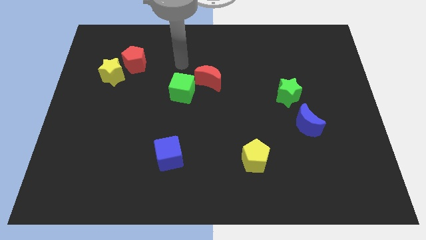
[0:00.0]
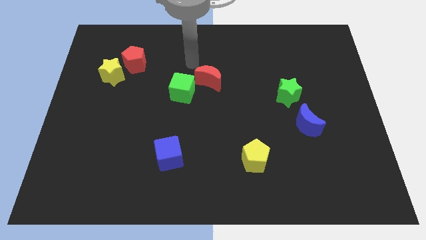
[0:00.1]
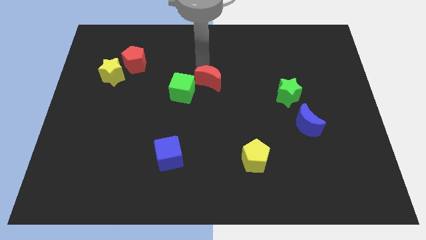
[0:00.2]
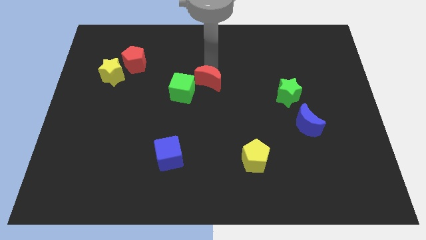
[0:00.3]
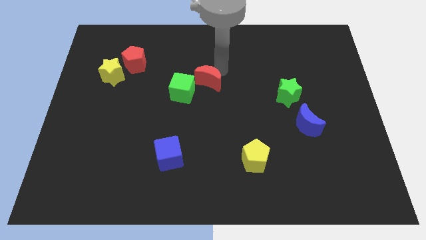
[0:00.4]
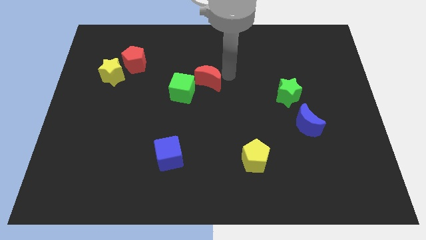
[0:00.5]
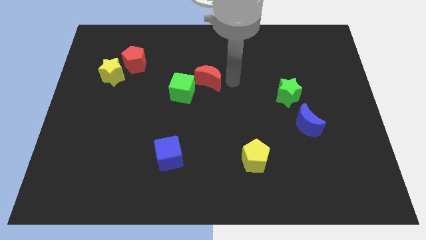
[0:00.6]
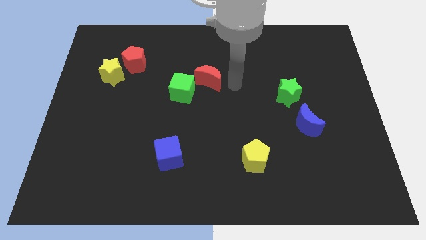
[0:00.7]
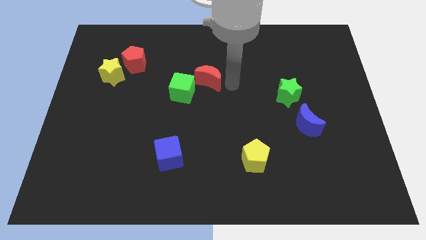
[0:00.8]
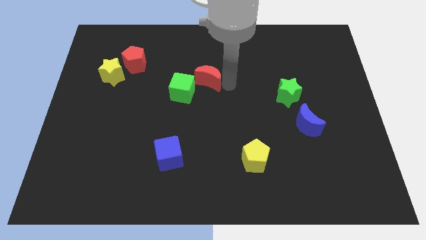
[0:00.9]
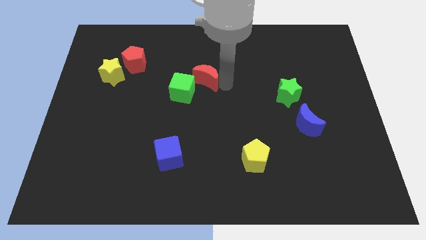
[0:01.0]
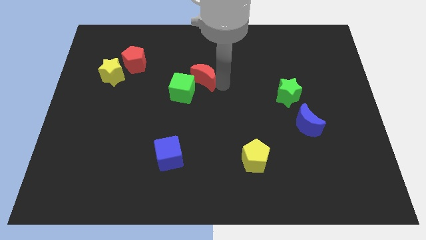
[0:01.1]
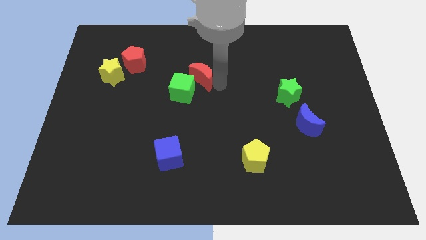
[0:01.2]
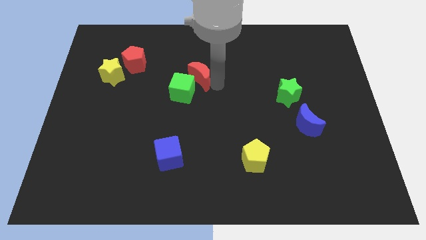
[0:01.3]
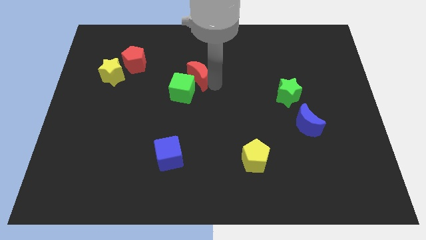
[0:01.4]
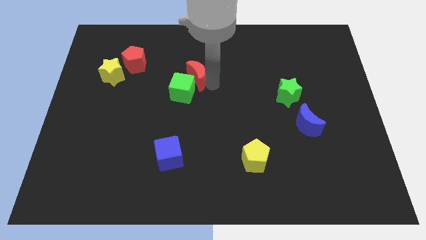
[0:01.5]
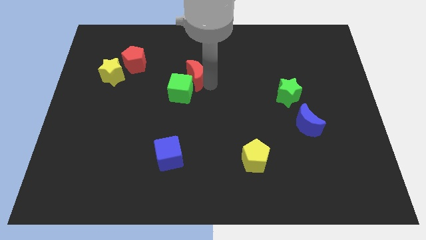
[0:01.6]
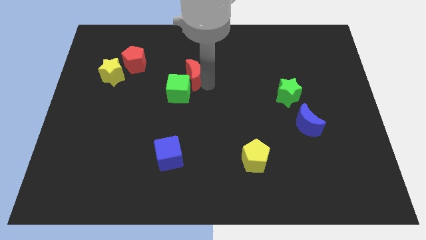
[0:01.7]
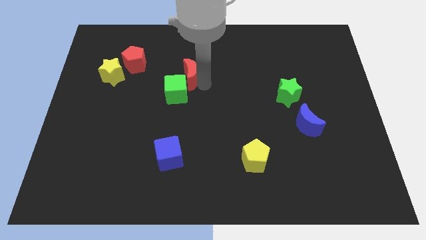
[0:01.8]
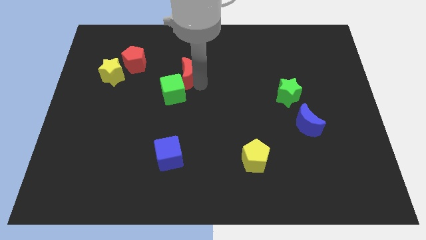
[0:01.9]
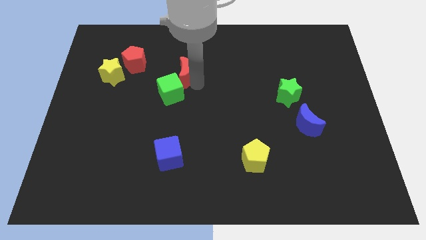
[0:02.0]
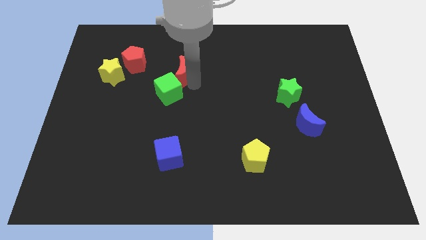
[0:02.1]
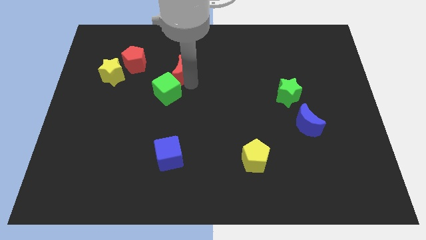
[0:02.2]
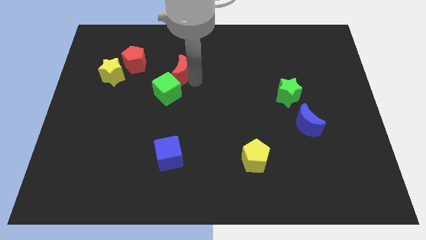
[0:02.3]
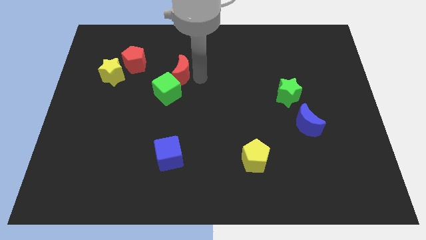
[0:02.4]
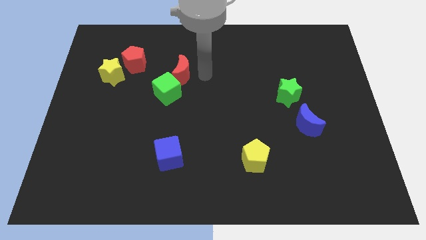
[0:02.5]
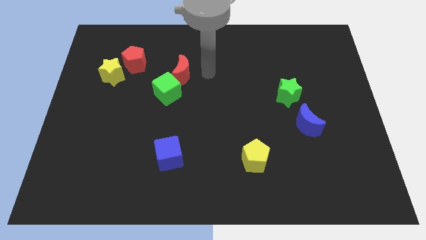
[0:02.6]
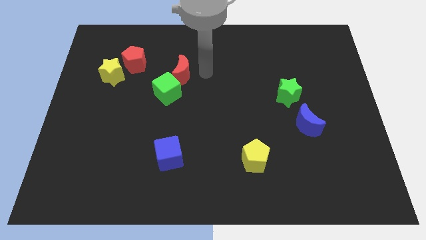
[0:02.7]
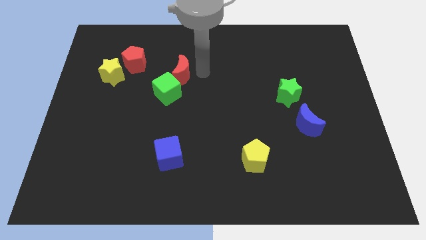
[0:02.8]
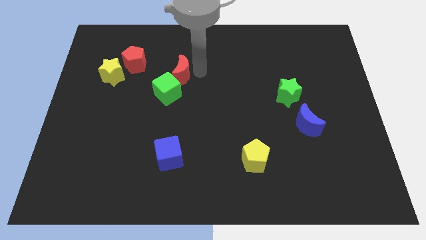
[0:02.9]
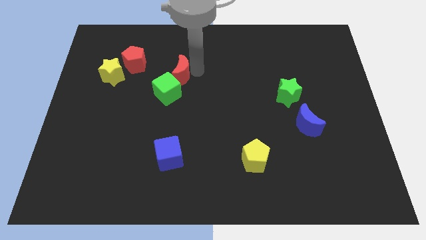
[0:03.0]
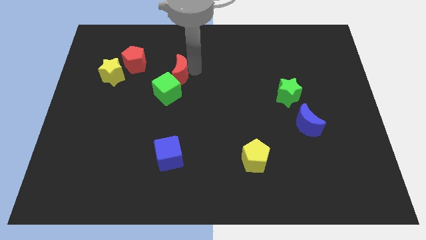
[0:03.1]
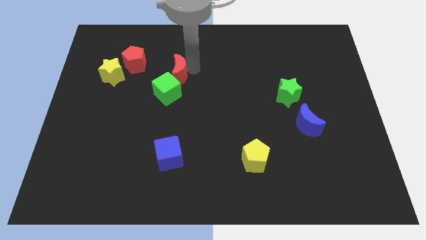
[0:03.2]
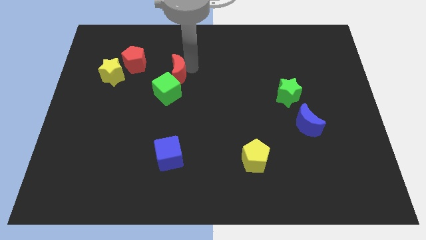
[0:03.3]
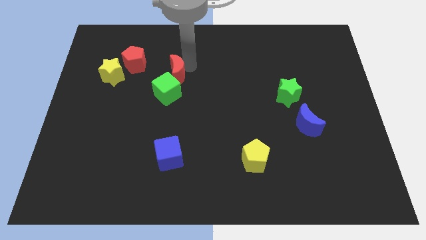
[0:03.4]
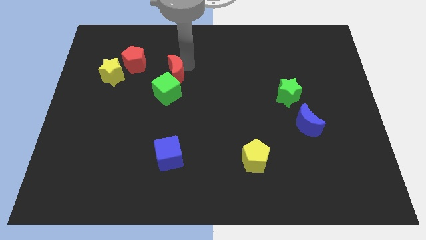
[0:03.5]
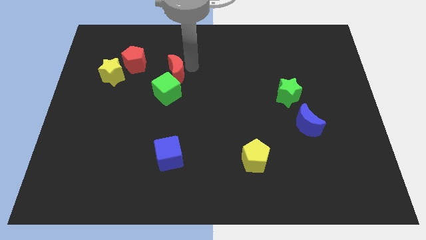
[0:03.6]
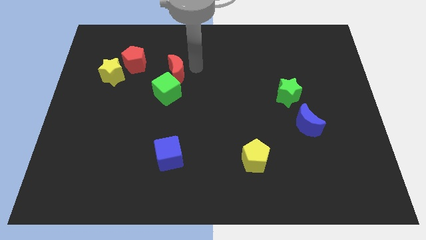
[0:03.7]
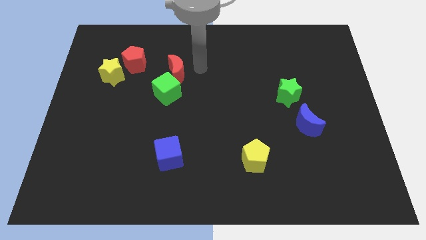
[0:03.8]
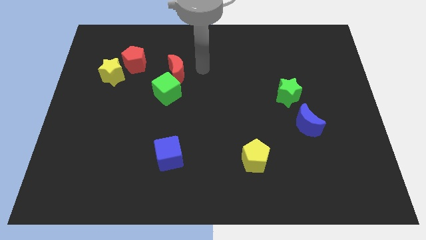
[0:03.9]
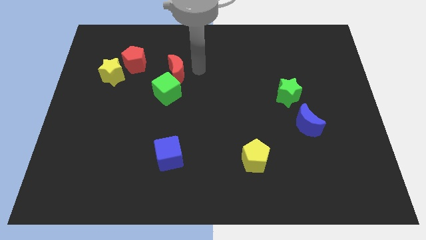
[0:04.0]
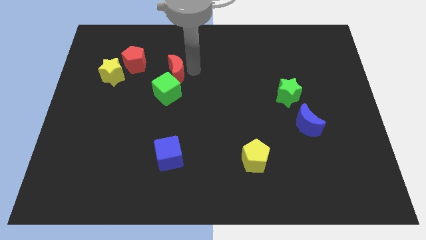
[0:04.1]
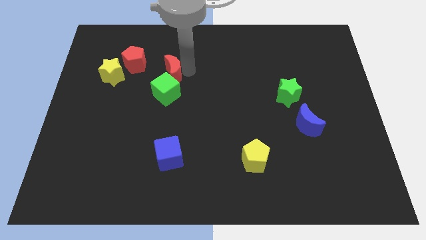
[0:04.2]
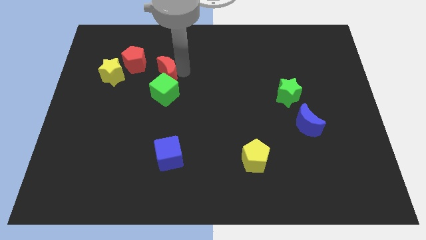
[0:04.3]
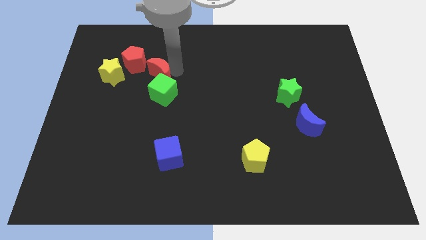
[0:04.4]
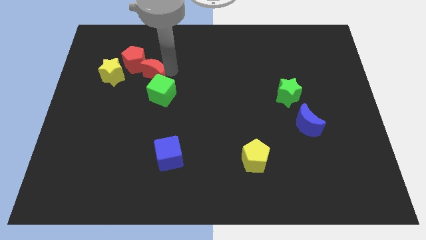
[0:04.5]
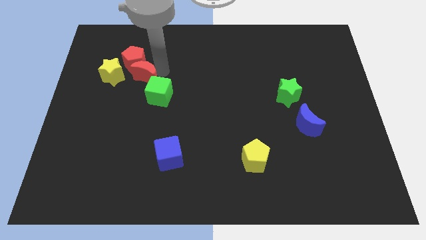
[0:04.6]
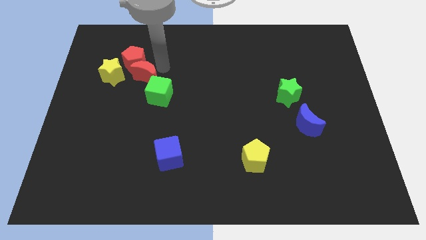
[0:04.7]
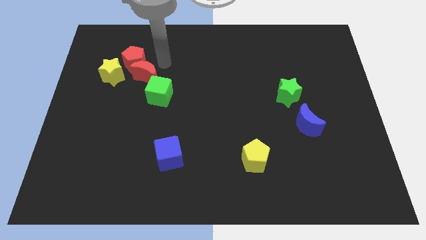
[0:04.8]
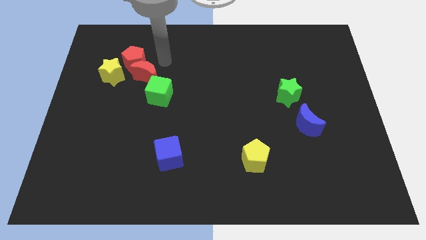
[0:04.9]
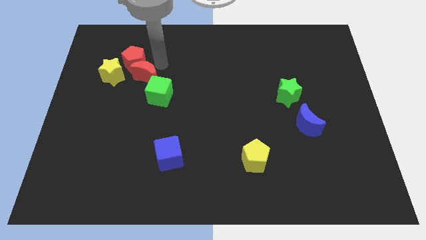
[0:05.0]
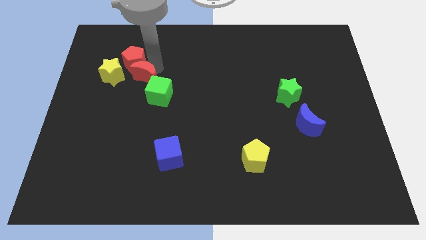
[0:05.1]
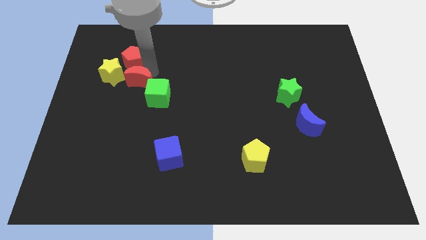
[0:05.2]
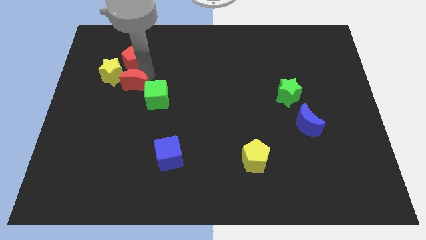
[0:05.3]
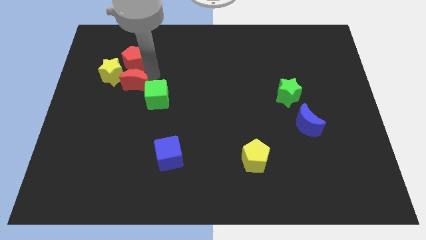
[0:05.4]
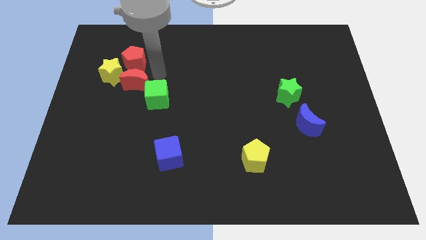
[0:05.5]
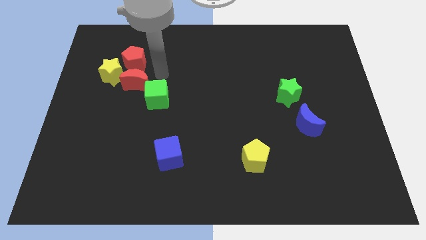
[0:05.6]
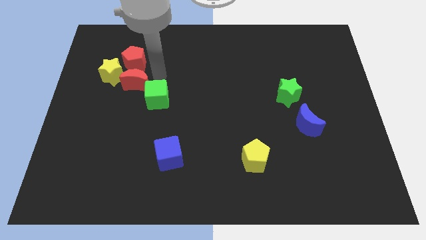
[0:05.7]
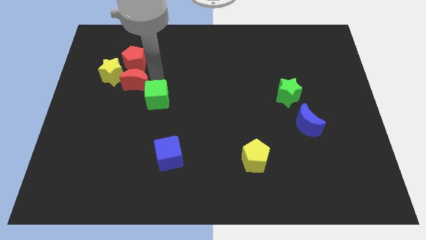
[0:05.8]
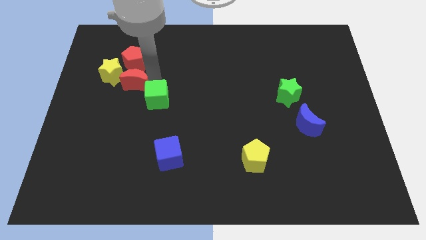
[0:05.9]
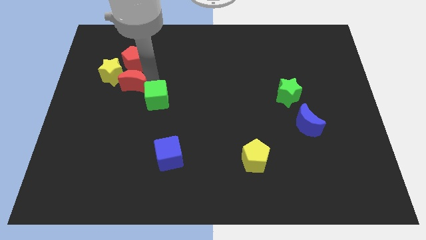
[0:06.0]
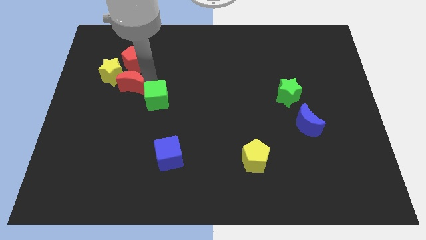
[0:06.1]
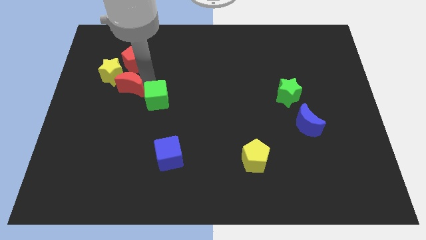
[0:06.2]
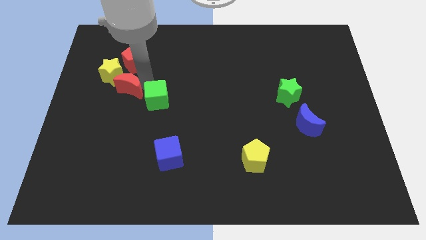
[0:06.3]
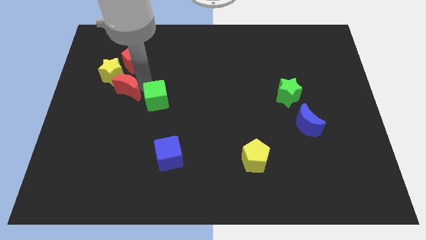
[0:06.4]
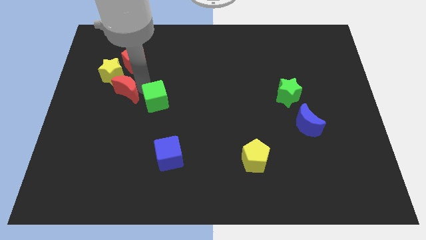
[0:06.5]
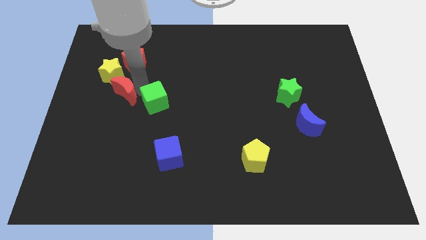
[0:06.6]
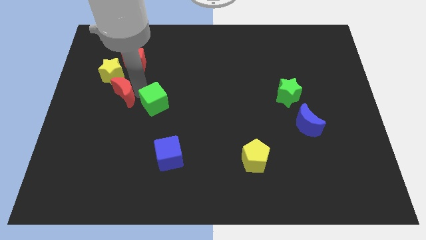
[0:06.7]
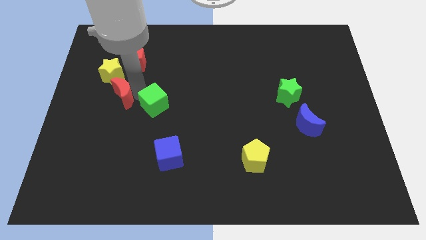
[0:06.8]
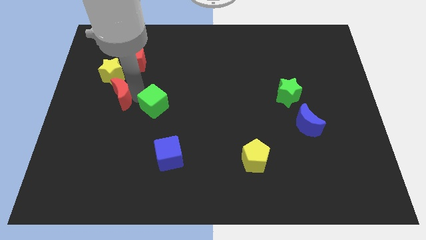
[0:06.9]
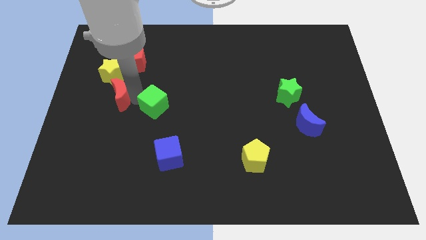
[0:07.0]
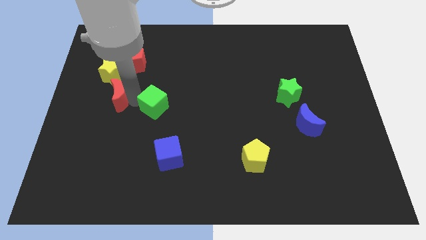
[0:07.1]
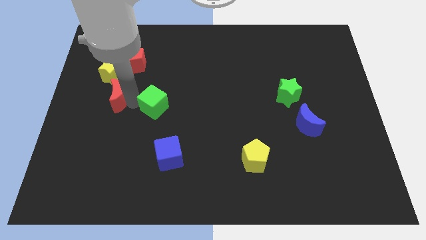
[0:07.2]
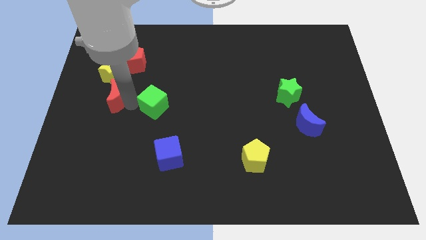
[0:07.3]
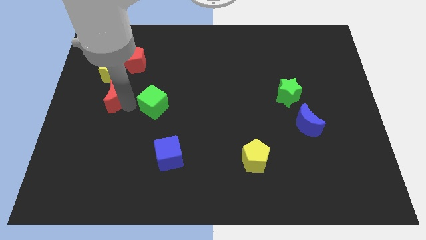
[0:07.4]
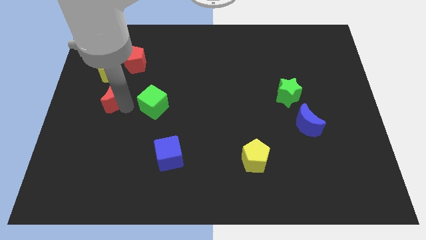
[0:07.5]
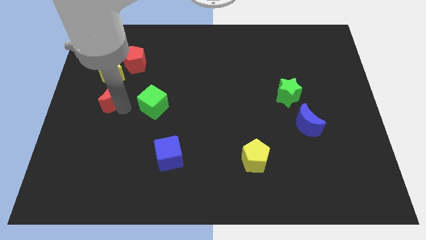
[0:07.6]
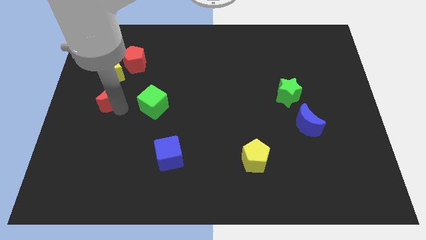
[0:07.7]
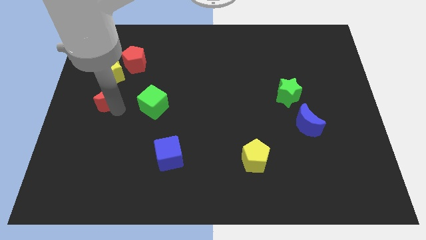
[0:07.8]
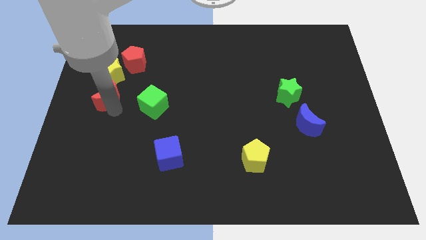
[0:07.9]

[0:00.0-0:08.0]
put the red moon to the center left
